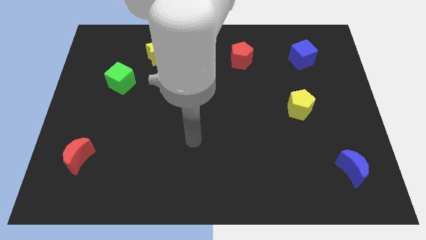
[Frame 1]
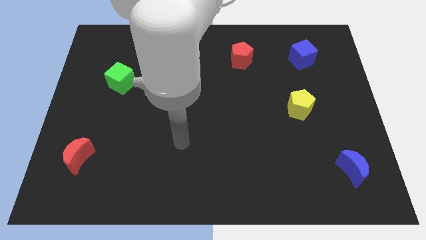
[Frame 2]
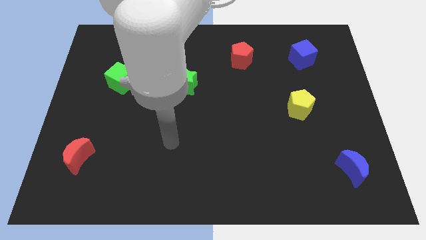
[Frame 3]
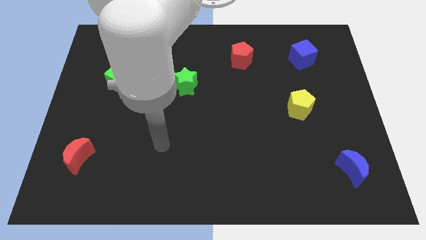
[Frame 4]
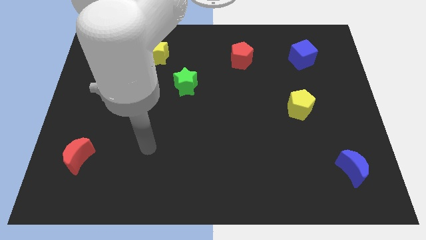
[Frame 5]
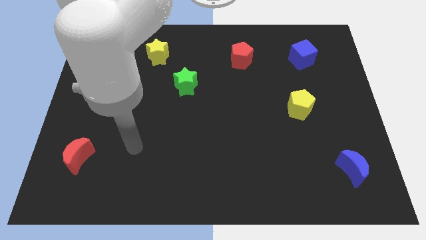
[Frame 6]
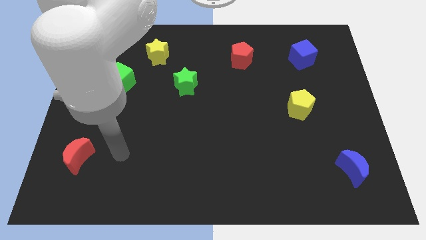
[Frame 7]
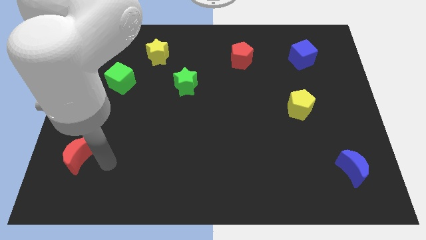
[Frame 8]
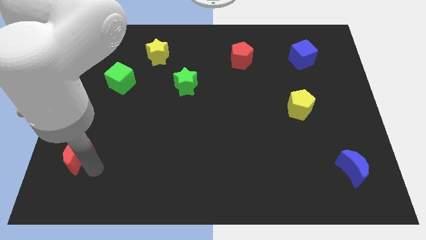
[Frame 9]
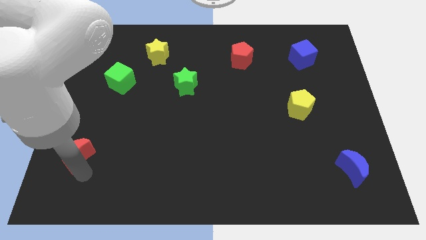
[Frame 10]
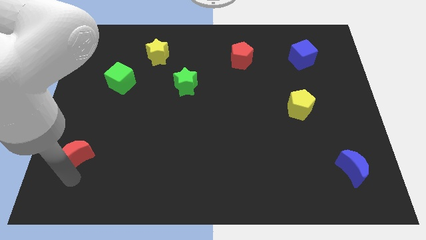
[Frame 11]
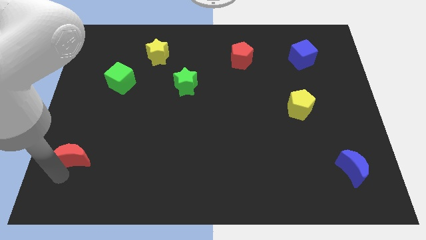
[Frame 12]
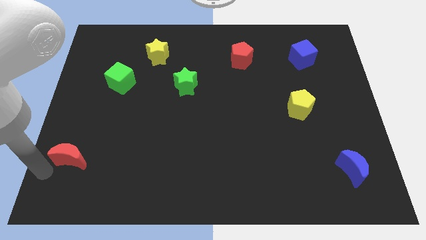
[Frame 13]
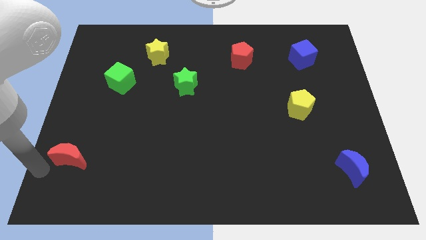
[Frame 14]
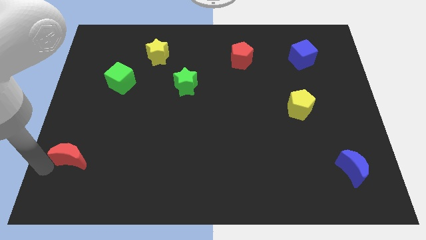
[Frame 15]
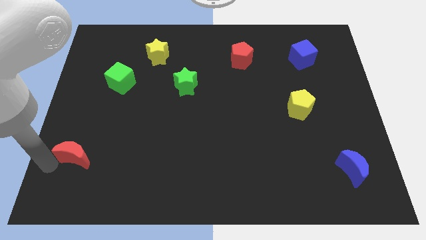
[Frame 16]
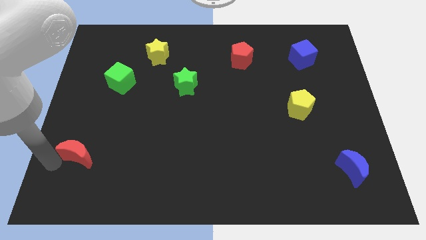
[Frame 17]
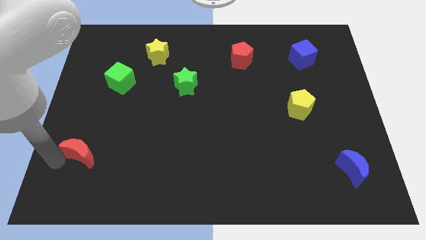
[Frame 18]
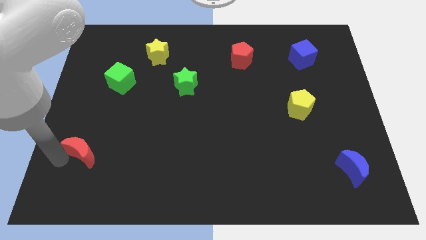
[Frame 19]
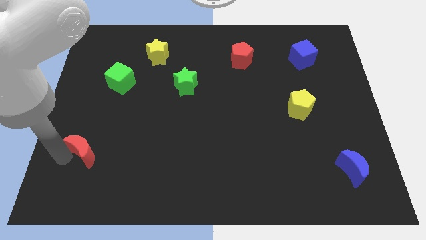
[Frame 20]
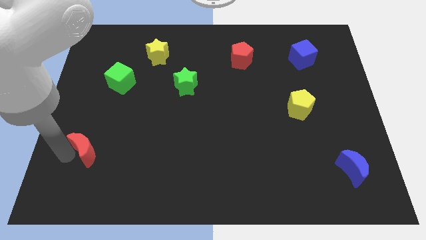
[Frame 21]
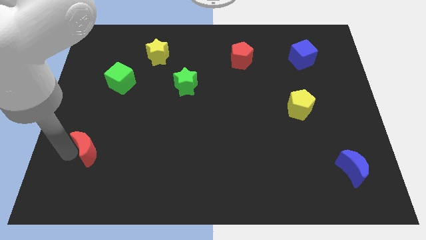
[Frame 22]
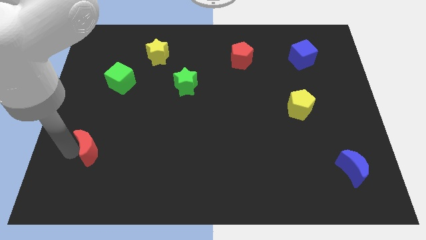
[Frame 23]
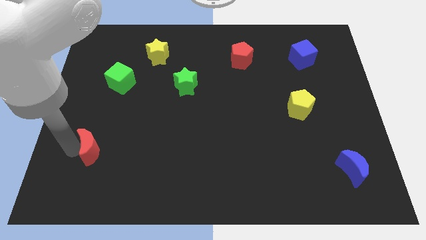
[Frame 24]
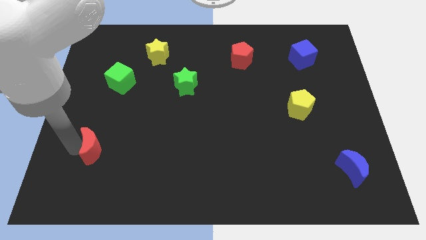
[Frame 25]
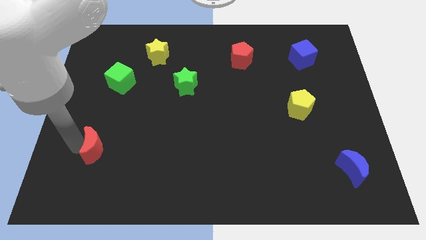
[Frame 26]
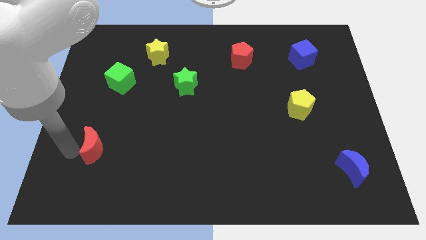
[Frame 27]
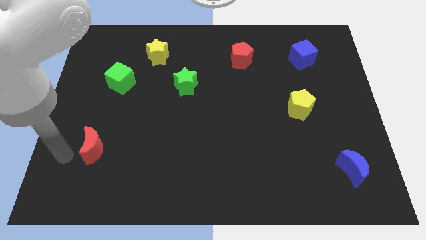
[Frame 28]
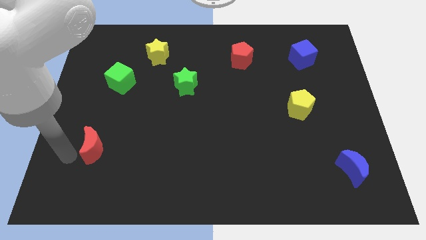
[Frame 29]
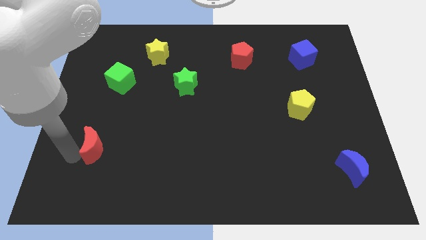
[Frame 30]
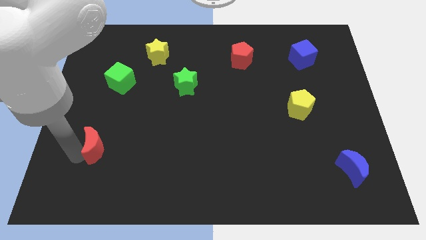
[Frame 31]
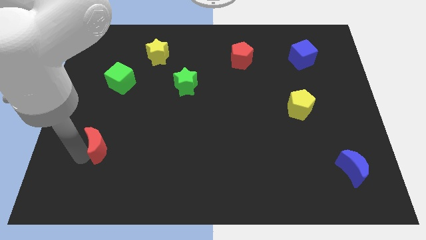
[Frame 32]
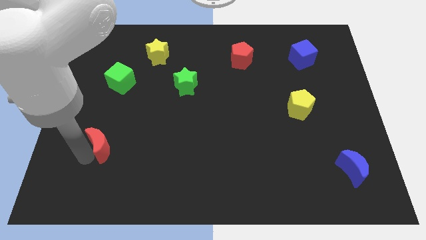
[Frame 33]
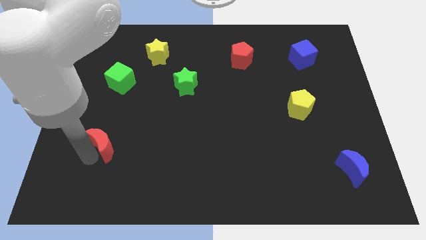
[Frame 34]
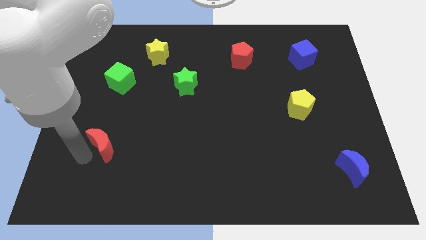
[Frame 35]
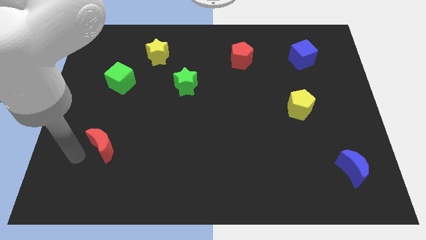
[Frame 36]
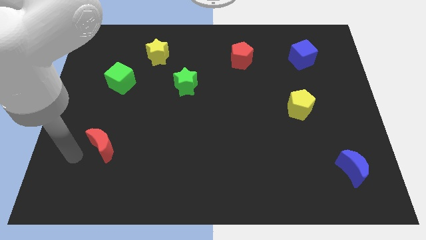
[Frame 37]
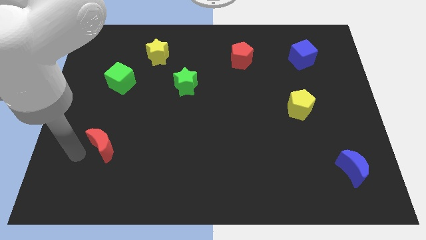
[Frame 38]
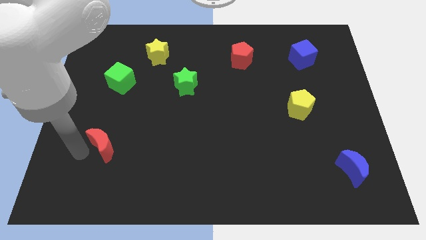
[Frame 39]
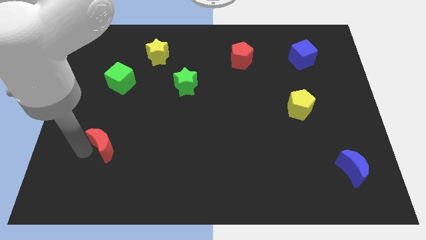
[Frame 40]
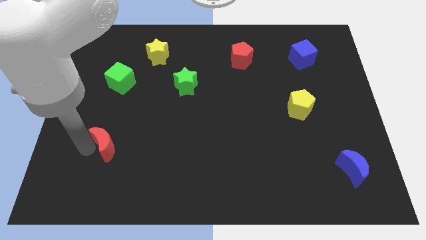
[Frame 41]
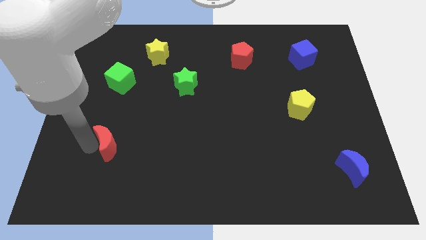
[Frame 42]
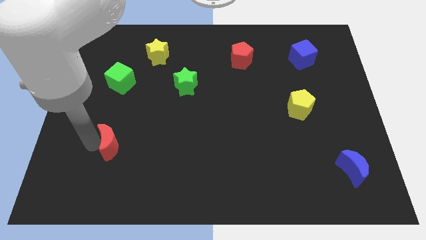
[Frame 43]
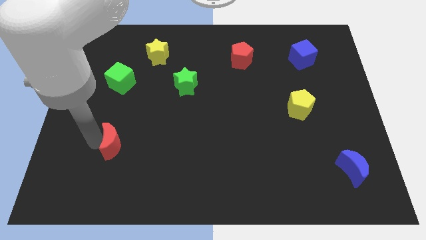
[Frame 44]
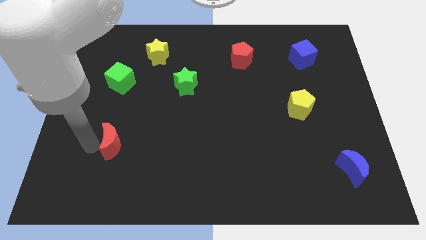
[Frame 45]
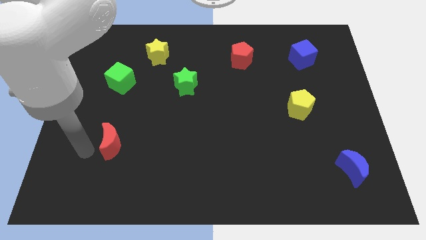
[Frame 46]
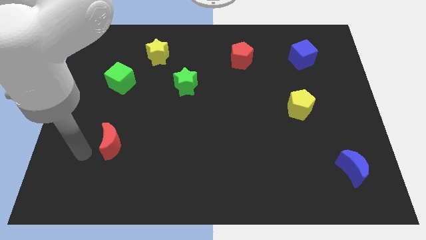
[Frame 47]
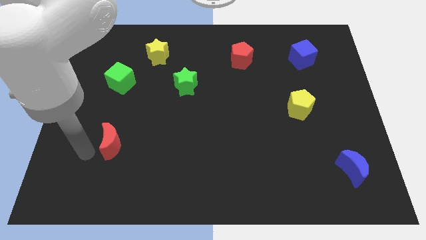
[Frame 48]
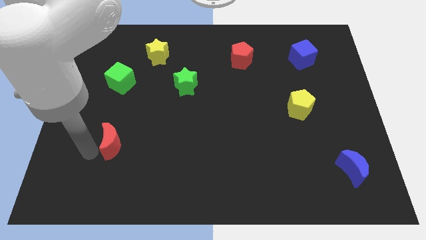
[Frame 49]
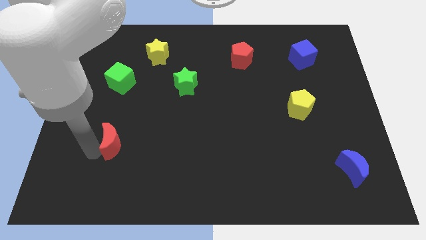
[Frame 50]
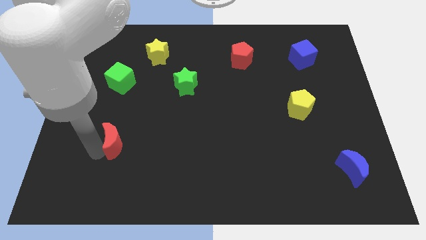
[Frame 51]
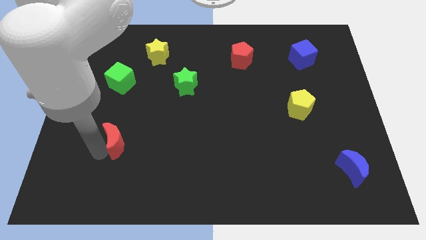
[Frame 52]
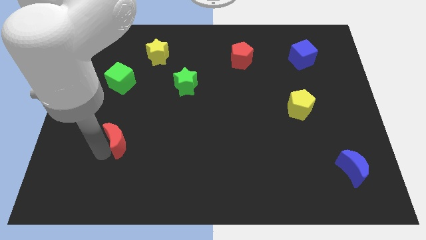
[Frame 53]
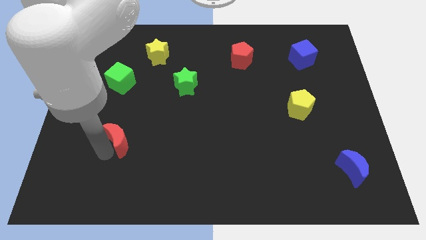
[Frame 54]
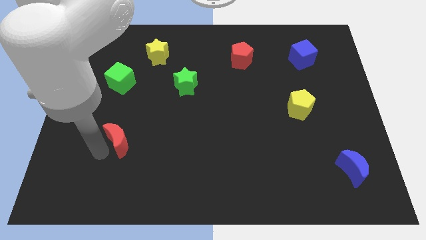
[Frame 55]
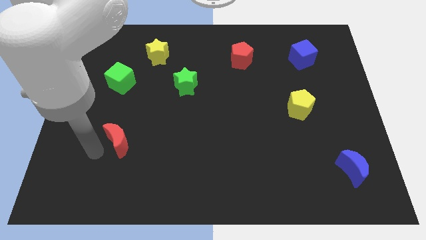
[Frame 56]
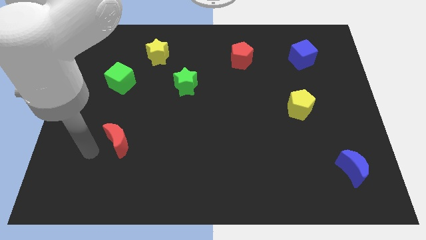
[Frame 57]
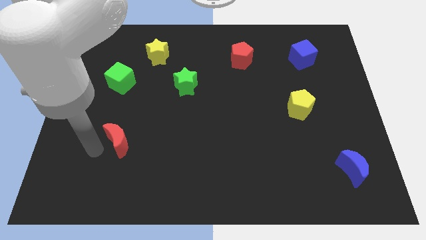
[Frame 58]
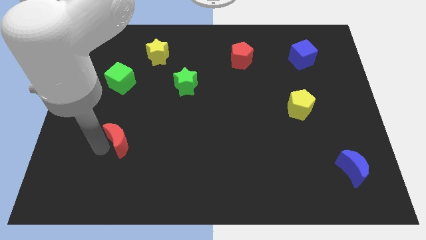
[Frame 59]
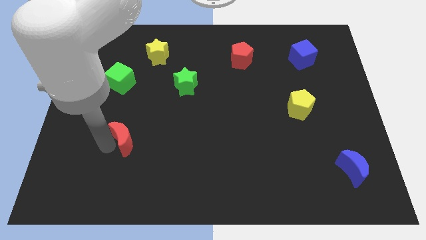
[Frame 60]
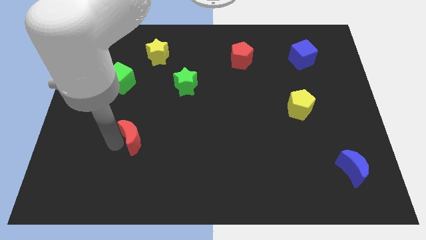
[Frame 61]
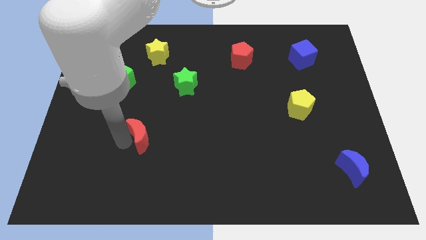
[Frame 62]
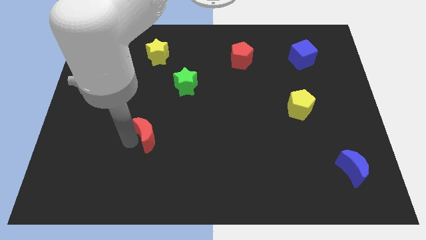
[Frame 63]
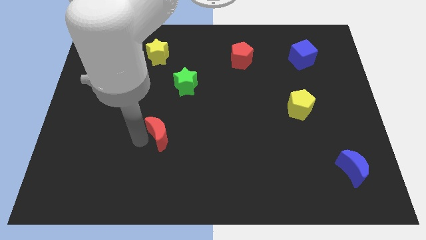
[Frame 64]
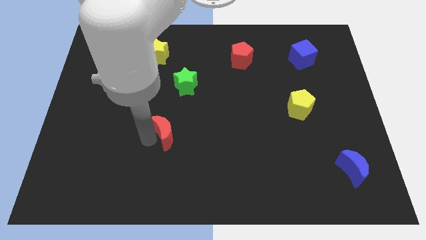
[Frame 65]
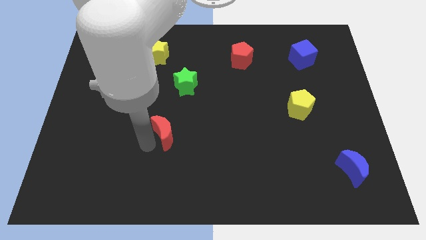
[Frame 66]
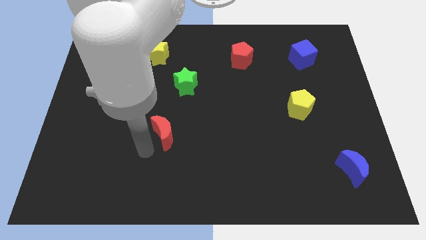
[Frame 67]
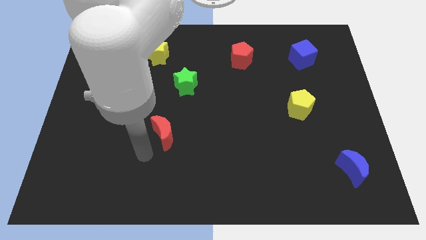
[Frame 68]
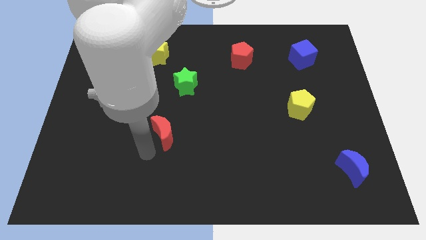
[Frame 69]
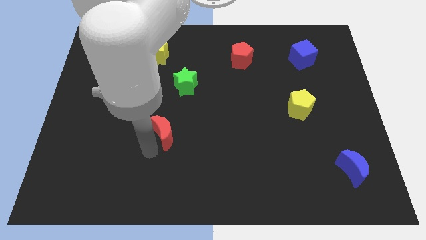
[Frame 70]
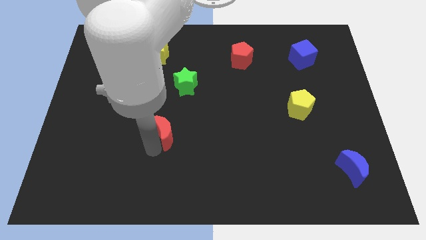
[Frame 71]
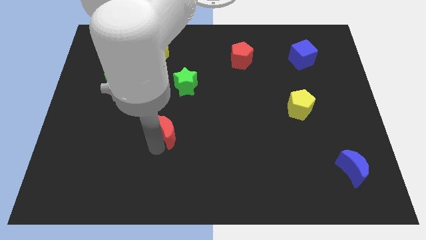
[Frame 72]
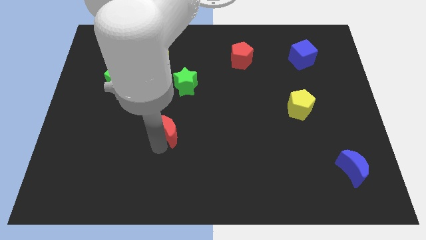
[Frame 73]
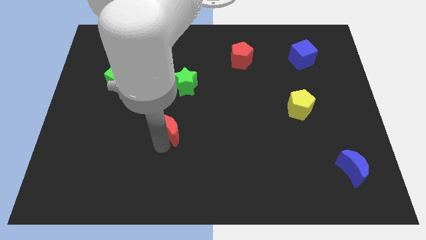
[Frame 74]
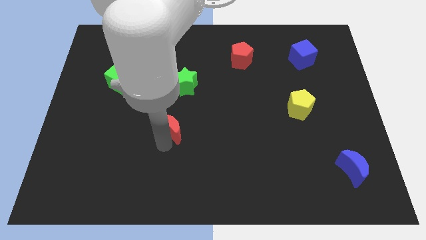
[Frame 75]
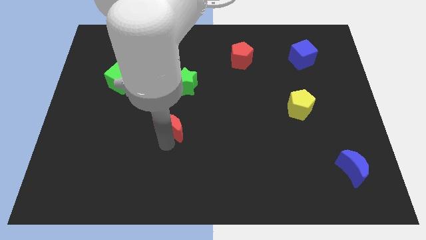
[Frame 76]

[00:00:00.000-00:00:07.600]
push the red moon to the middle of the board

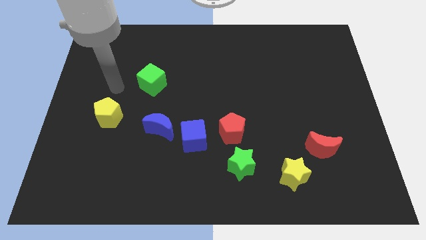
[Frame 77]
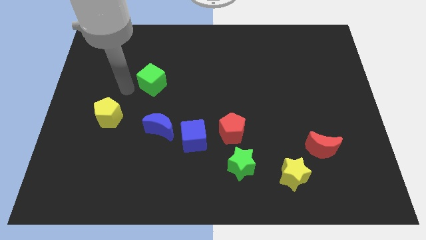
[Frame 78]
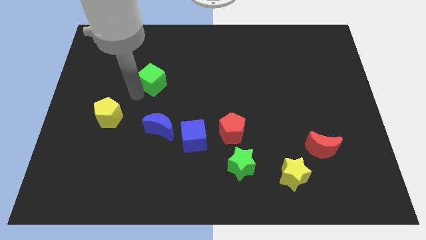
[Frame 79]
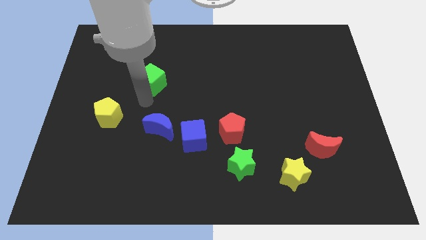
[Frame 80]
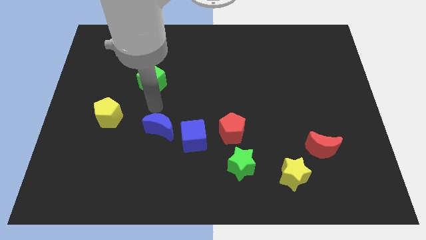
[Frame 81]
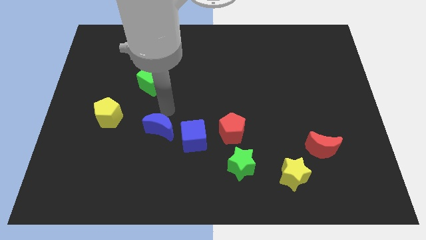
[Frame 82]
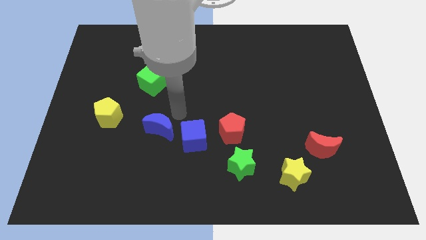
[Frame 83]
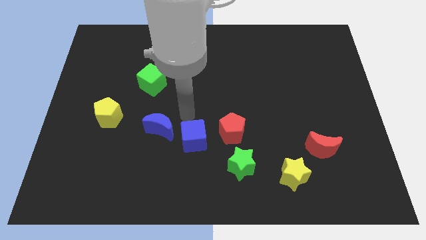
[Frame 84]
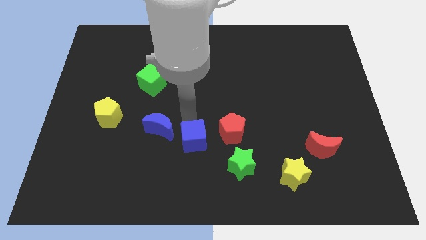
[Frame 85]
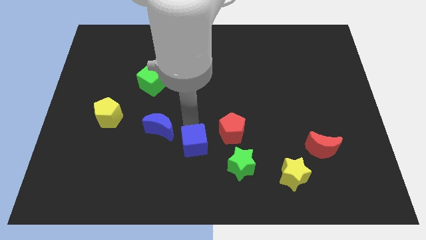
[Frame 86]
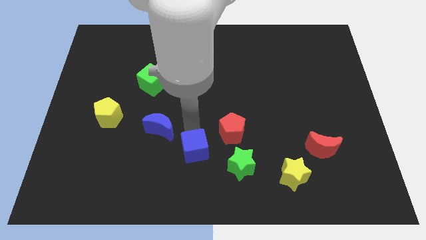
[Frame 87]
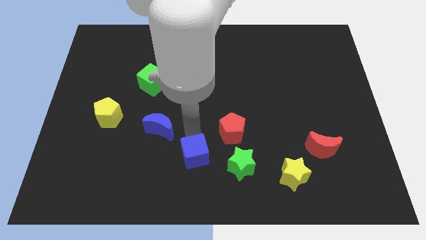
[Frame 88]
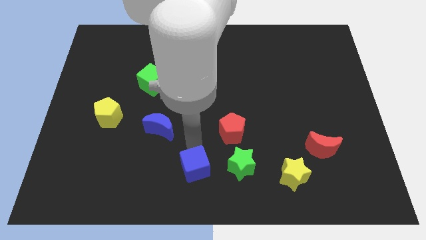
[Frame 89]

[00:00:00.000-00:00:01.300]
put the blue cube to the bottom
